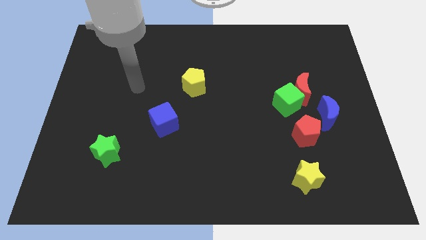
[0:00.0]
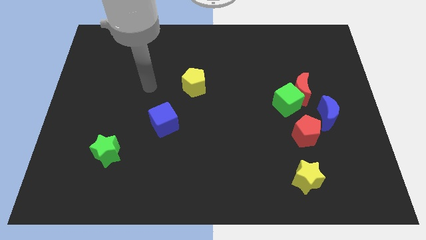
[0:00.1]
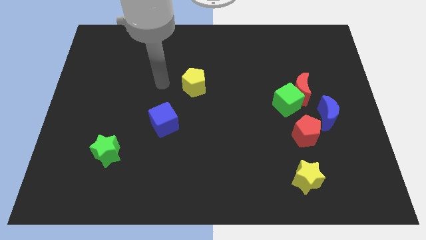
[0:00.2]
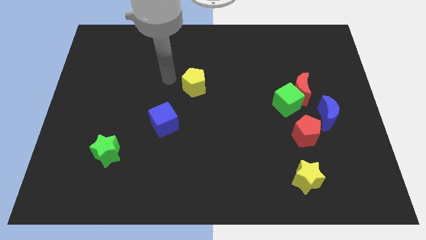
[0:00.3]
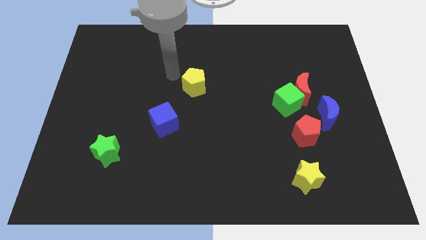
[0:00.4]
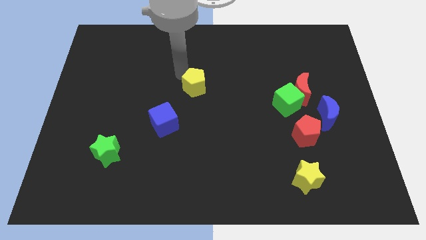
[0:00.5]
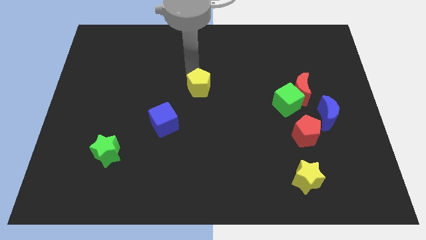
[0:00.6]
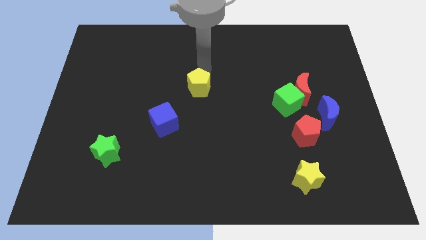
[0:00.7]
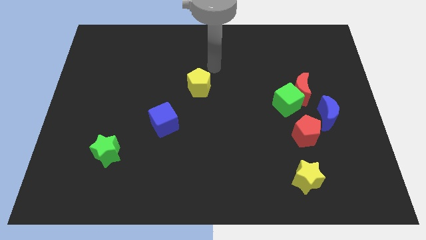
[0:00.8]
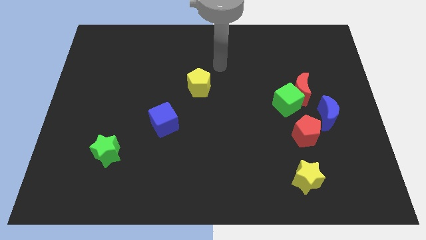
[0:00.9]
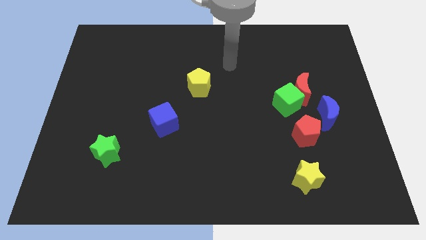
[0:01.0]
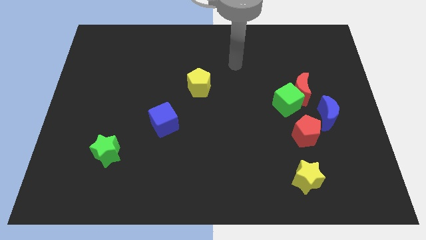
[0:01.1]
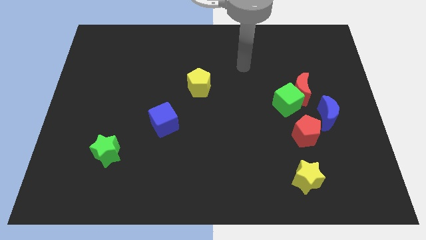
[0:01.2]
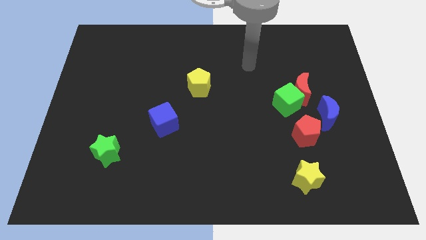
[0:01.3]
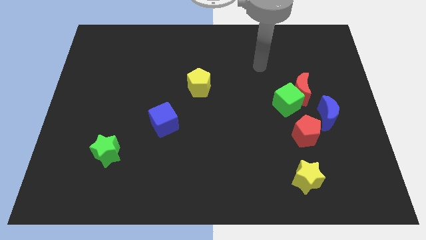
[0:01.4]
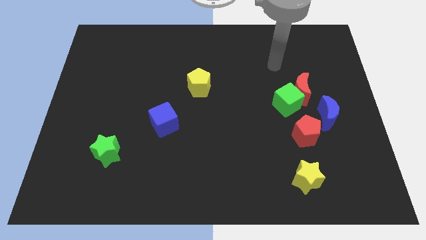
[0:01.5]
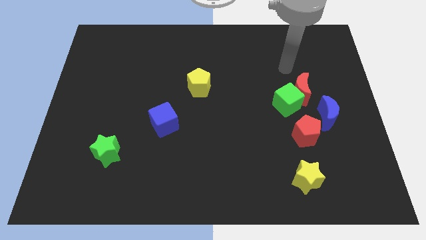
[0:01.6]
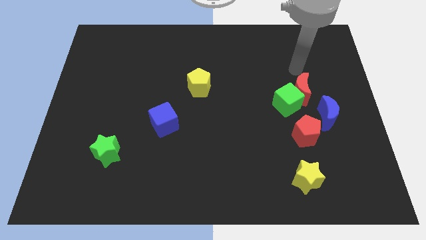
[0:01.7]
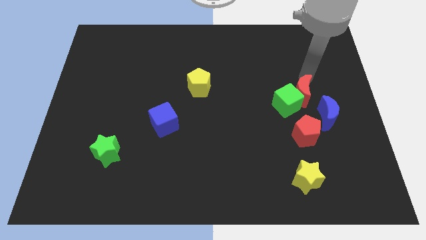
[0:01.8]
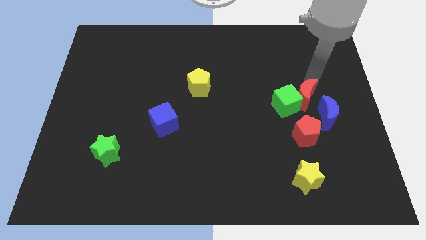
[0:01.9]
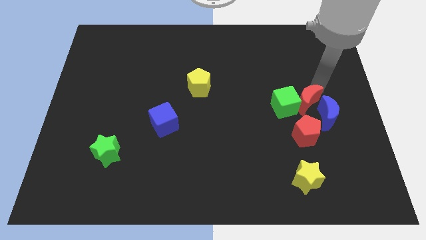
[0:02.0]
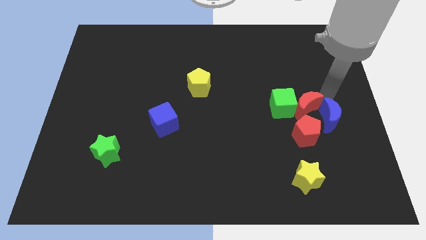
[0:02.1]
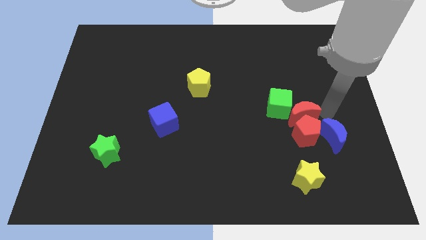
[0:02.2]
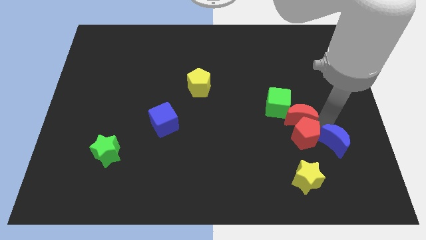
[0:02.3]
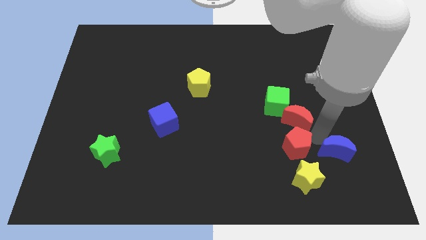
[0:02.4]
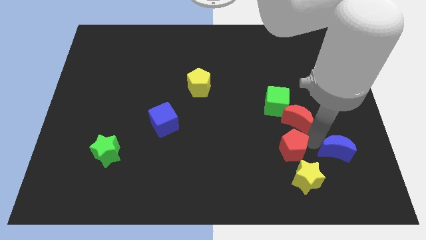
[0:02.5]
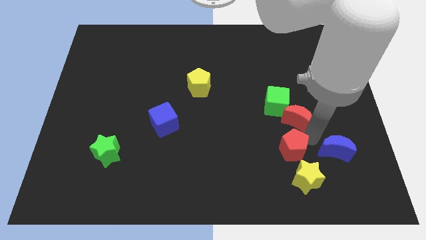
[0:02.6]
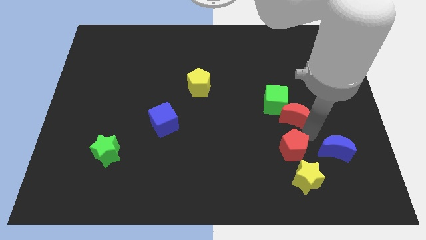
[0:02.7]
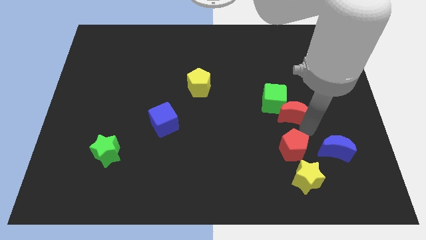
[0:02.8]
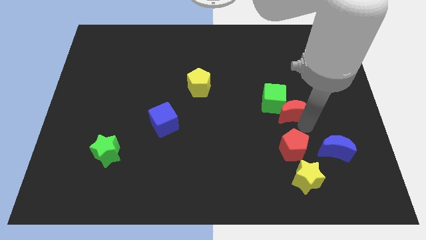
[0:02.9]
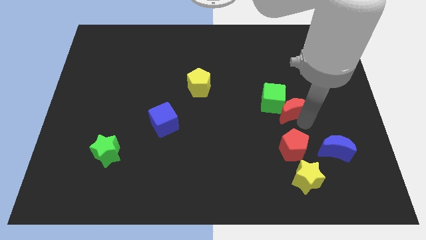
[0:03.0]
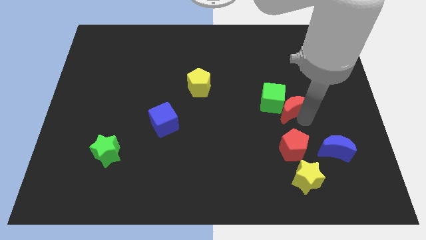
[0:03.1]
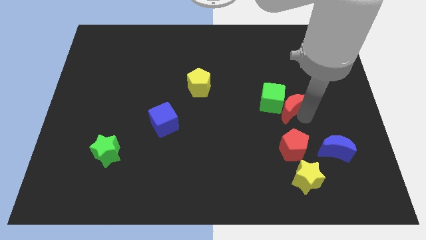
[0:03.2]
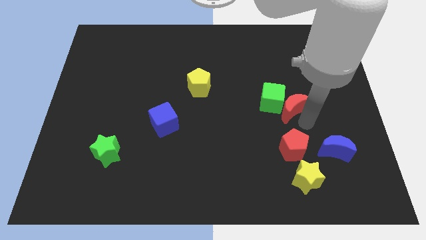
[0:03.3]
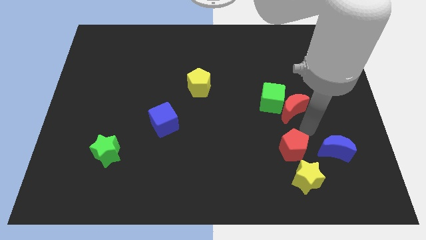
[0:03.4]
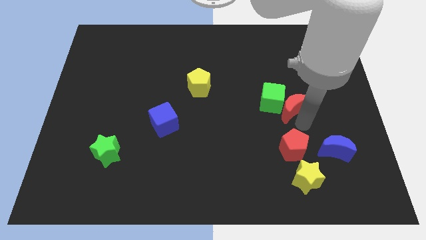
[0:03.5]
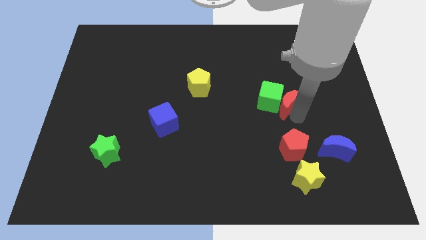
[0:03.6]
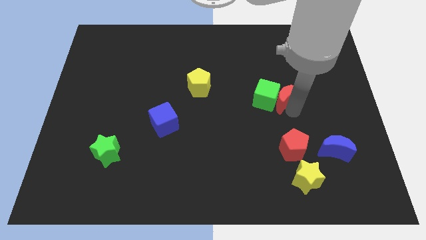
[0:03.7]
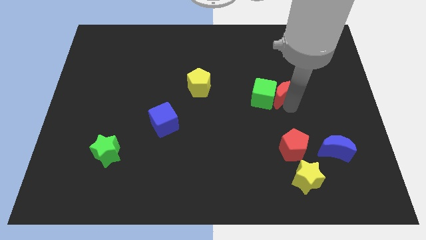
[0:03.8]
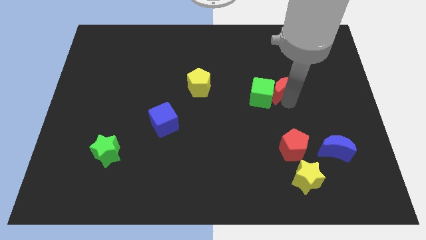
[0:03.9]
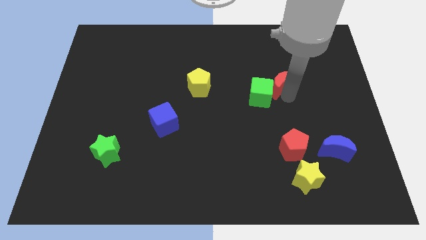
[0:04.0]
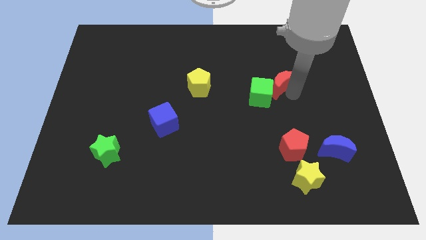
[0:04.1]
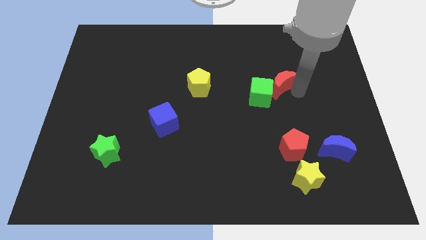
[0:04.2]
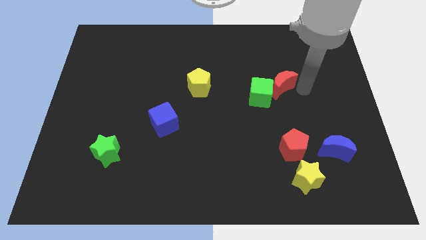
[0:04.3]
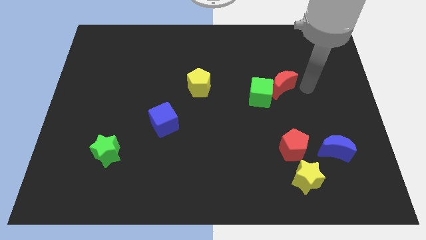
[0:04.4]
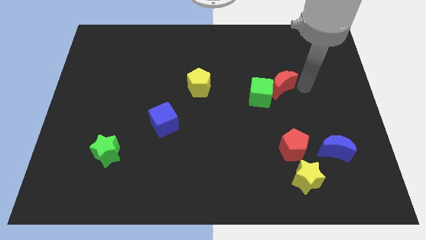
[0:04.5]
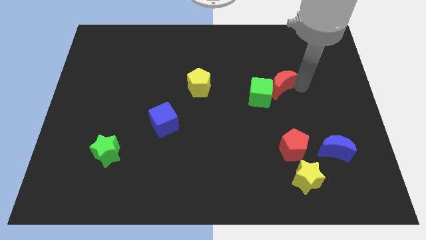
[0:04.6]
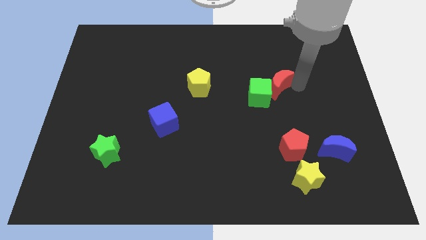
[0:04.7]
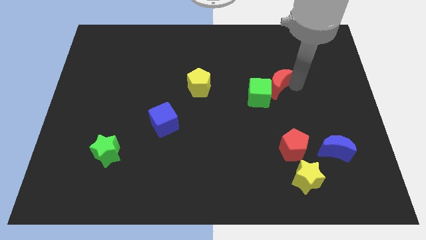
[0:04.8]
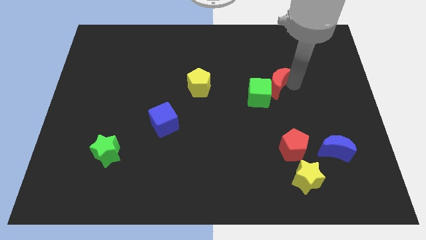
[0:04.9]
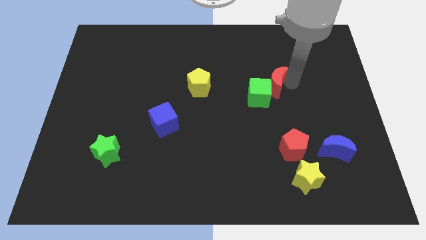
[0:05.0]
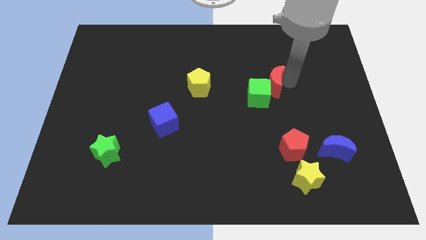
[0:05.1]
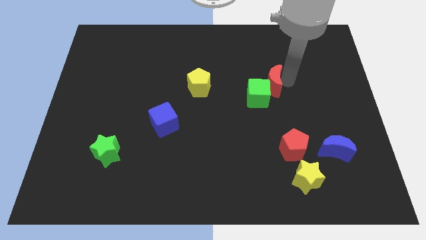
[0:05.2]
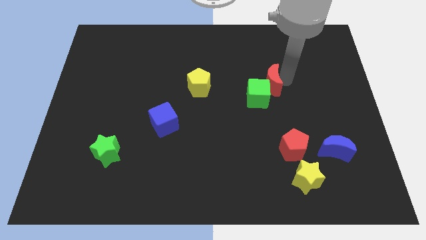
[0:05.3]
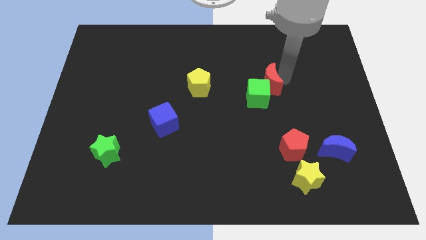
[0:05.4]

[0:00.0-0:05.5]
slide the red moon to the left somewhat

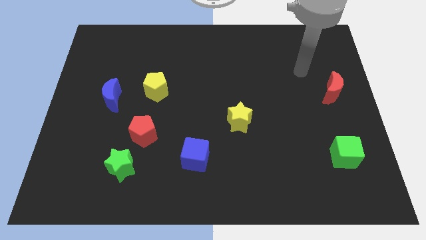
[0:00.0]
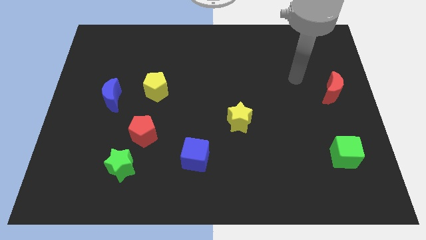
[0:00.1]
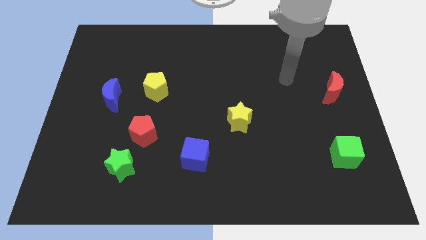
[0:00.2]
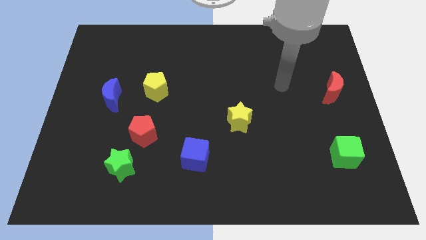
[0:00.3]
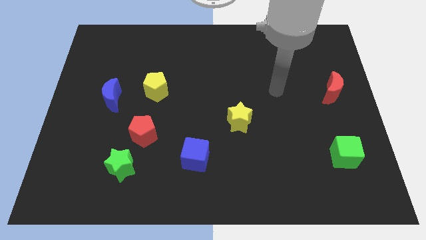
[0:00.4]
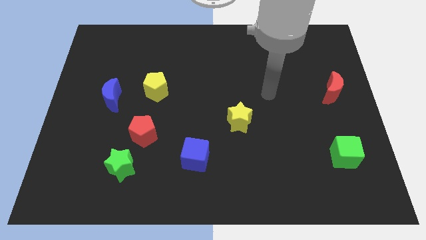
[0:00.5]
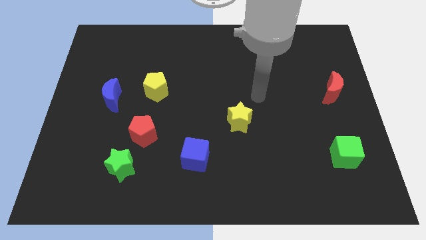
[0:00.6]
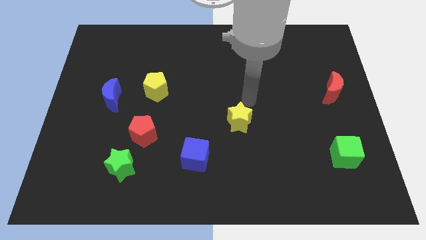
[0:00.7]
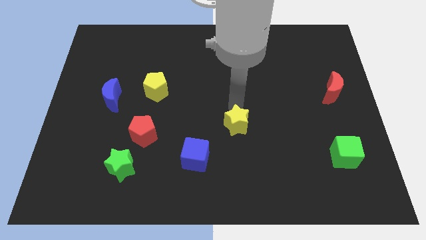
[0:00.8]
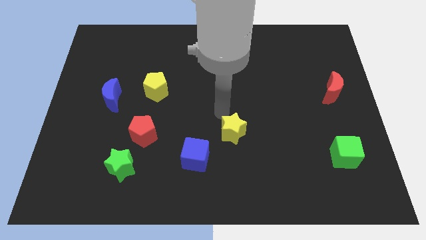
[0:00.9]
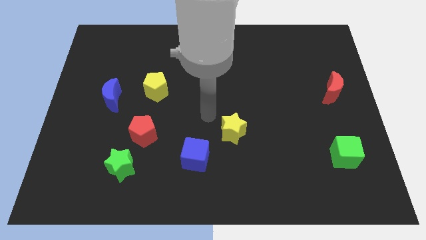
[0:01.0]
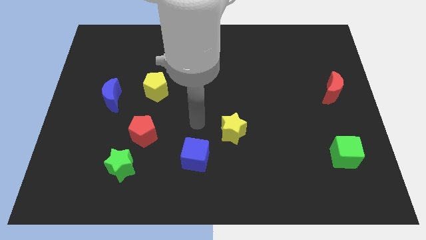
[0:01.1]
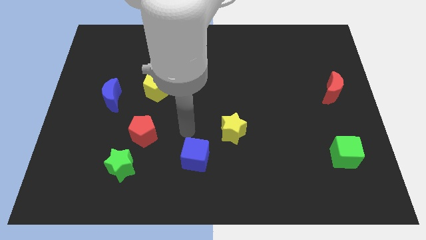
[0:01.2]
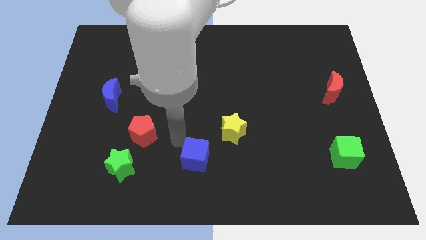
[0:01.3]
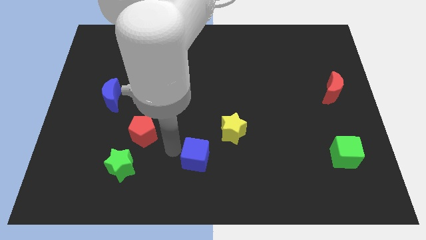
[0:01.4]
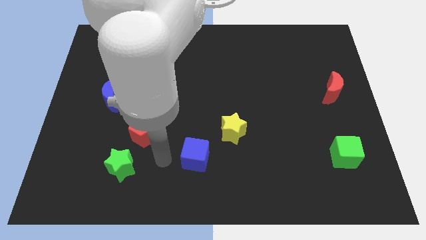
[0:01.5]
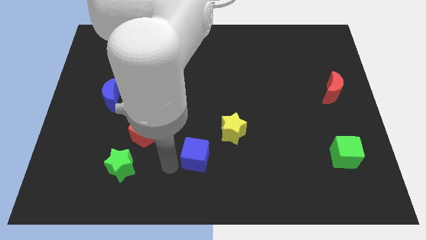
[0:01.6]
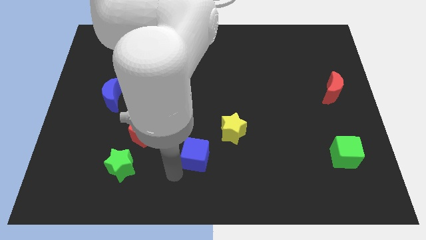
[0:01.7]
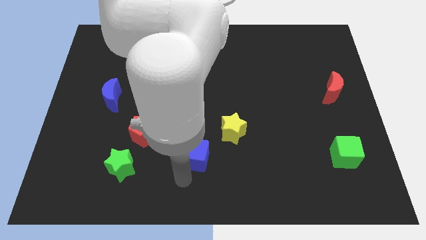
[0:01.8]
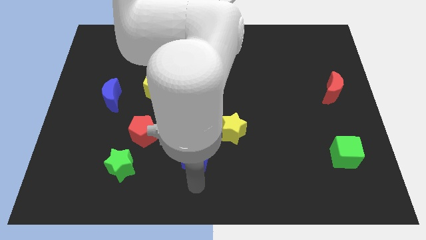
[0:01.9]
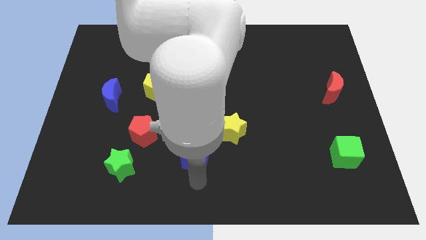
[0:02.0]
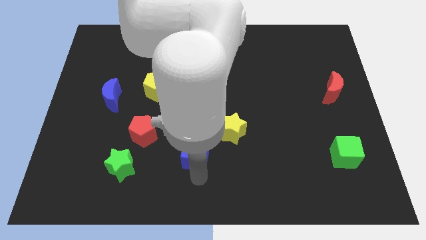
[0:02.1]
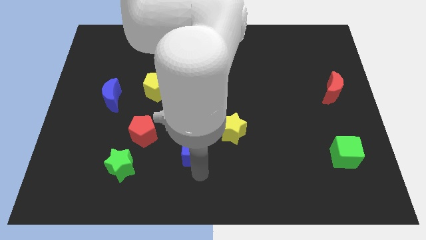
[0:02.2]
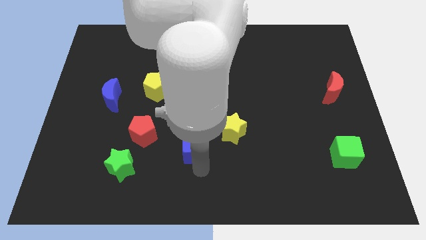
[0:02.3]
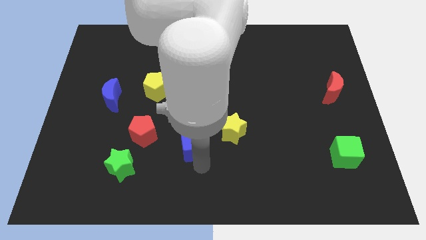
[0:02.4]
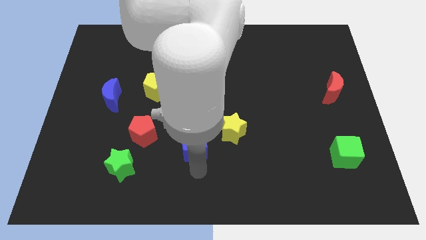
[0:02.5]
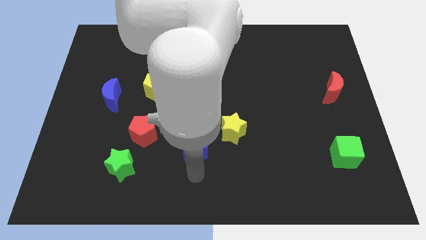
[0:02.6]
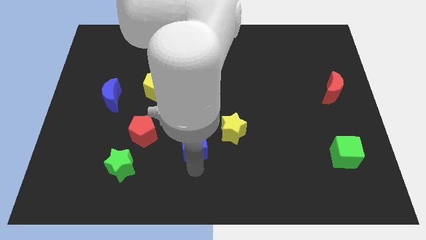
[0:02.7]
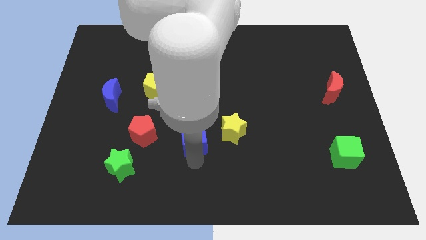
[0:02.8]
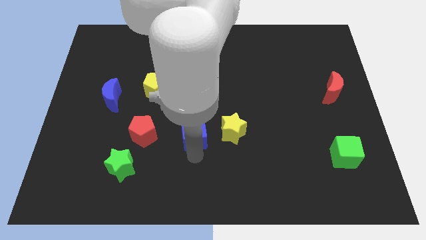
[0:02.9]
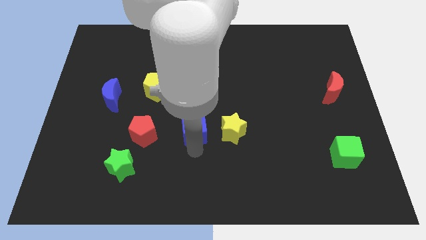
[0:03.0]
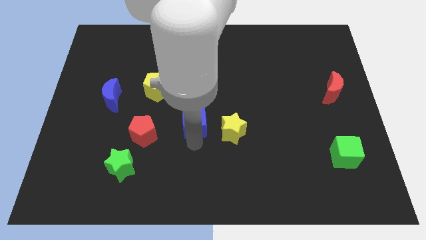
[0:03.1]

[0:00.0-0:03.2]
move the blue cube somewhat up
